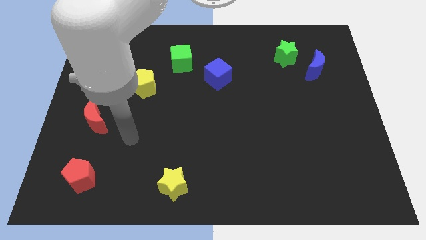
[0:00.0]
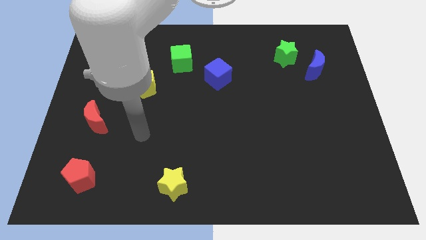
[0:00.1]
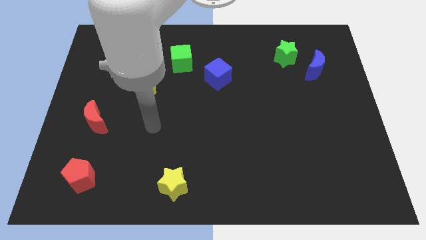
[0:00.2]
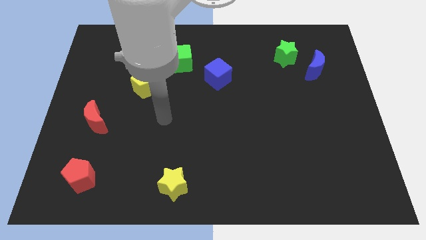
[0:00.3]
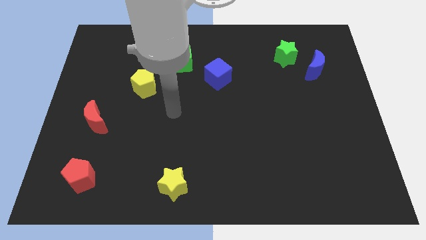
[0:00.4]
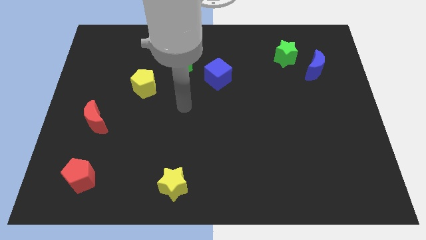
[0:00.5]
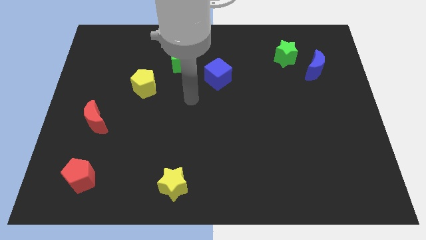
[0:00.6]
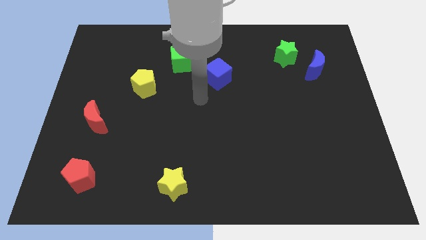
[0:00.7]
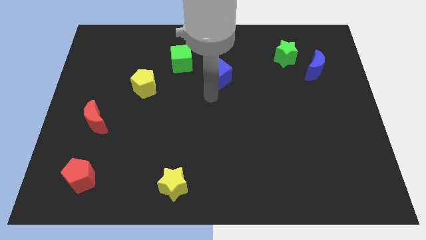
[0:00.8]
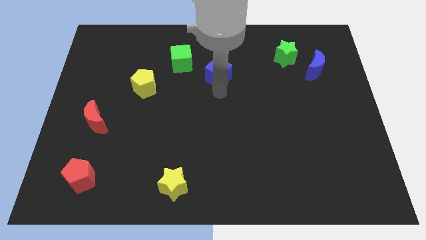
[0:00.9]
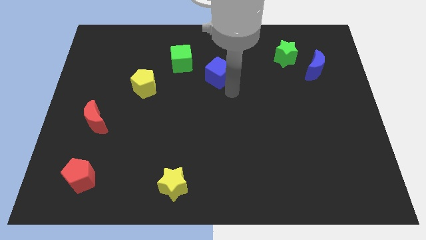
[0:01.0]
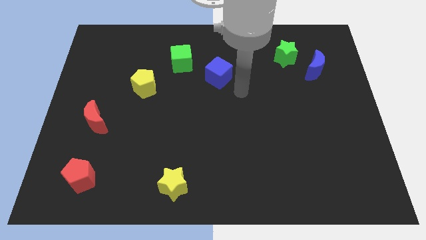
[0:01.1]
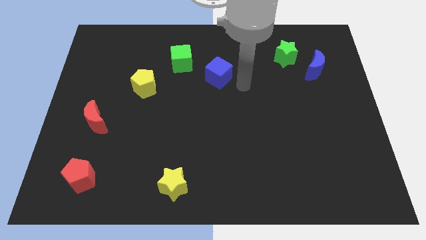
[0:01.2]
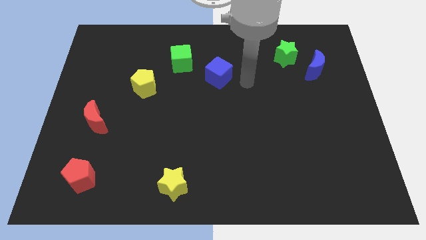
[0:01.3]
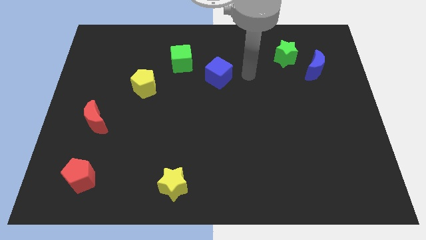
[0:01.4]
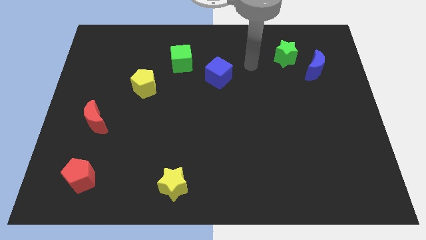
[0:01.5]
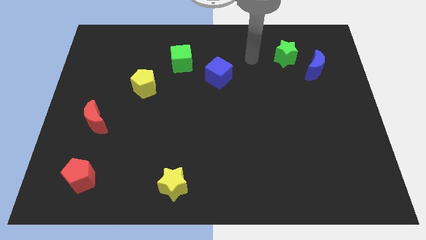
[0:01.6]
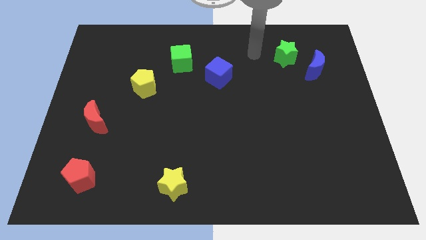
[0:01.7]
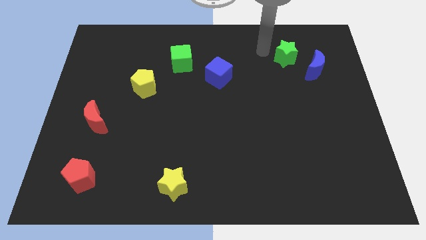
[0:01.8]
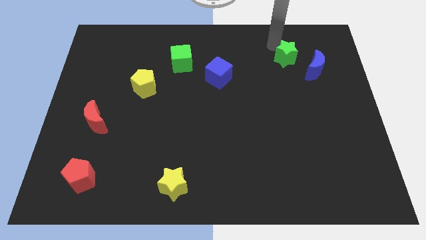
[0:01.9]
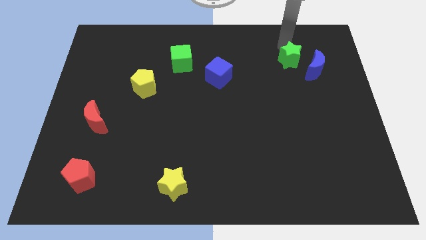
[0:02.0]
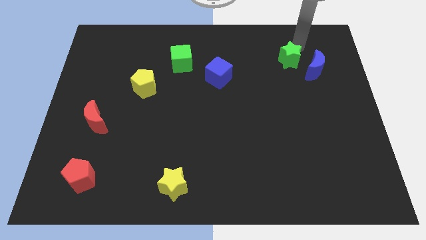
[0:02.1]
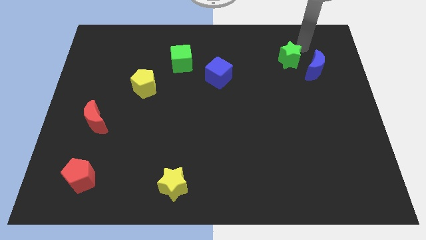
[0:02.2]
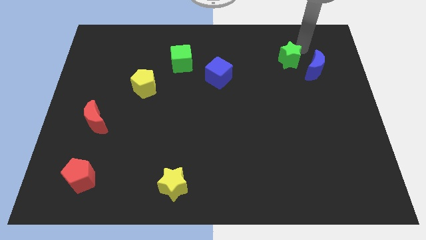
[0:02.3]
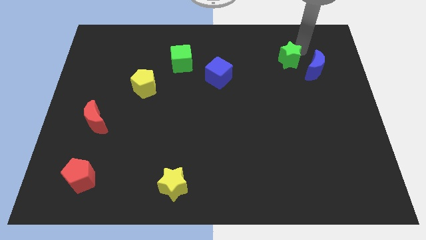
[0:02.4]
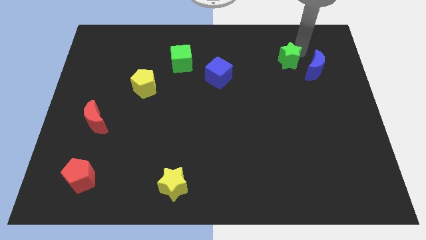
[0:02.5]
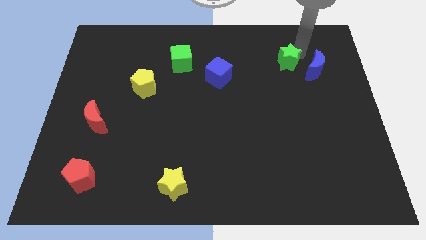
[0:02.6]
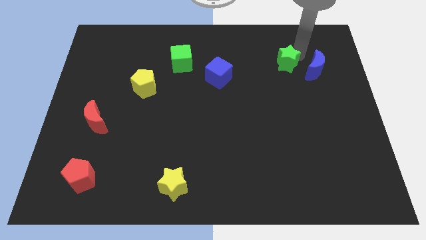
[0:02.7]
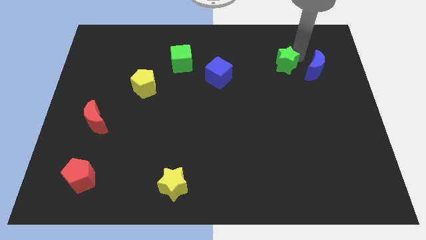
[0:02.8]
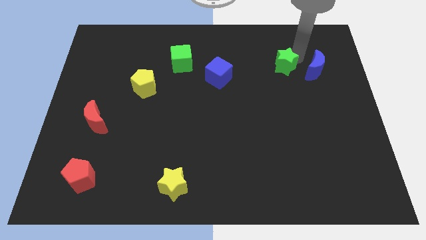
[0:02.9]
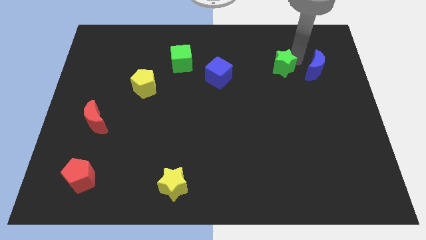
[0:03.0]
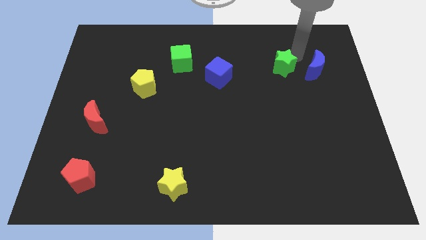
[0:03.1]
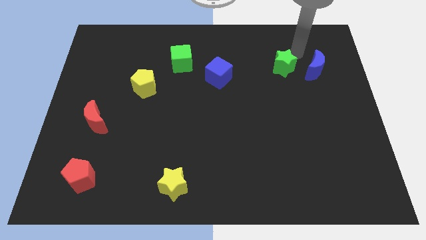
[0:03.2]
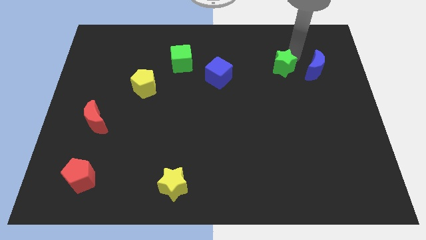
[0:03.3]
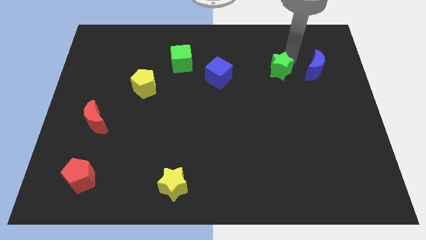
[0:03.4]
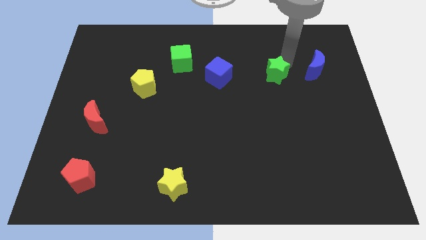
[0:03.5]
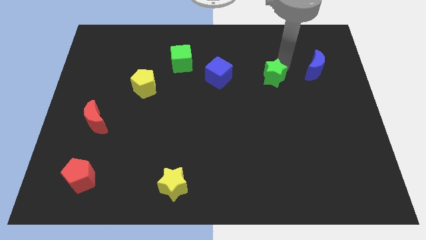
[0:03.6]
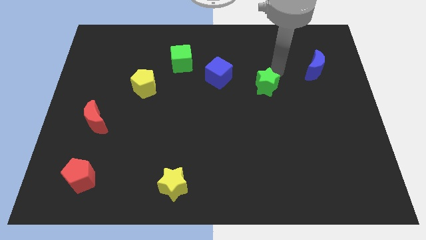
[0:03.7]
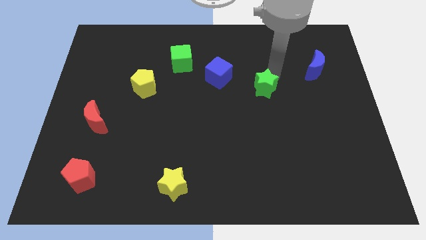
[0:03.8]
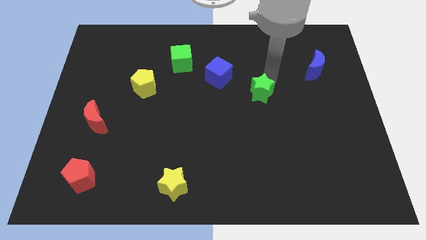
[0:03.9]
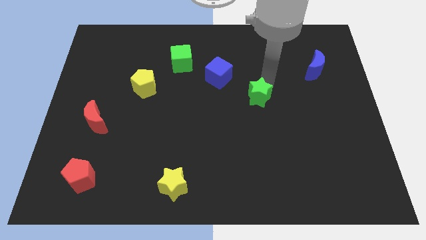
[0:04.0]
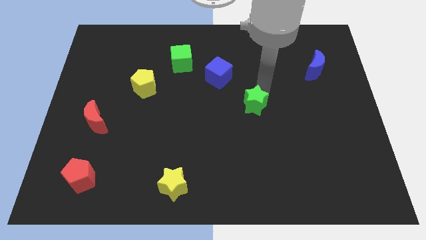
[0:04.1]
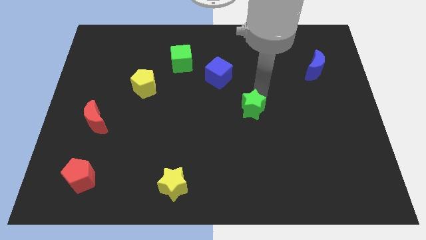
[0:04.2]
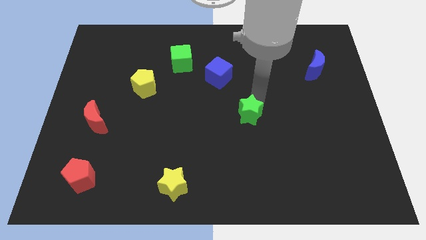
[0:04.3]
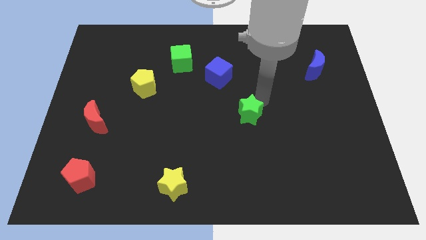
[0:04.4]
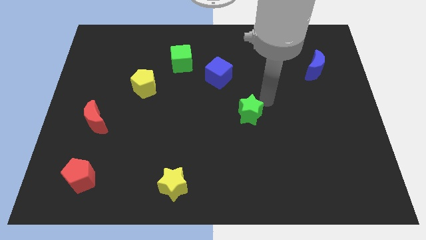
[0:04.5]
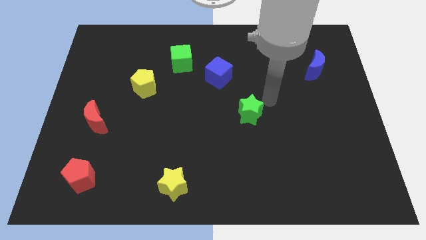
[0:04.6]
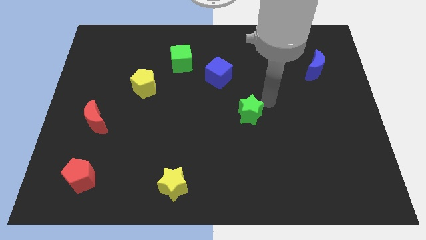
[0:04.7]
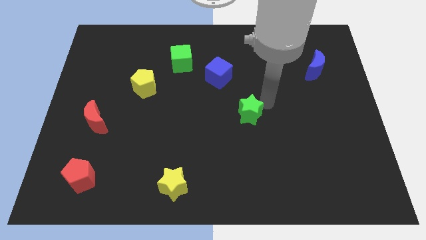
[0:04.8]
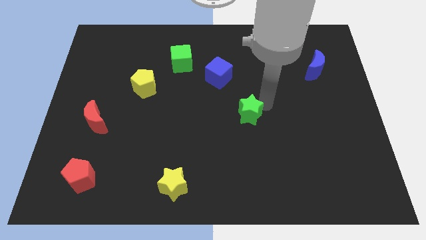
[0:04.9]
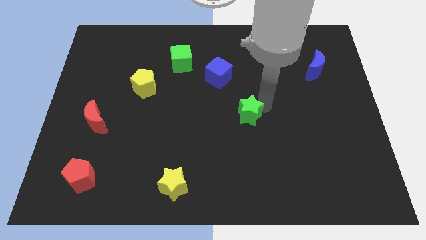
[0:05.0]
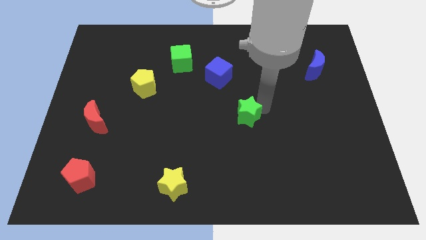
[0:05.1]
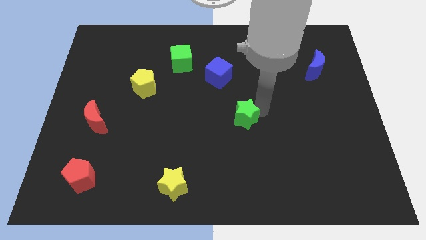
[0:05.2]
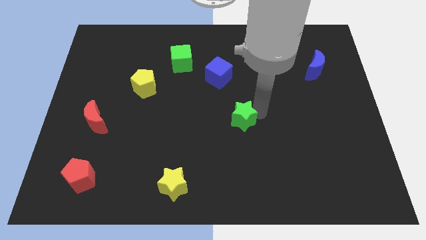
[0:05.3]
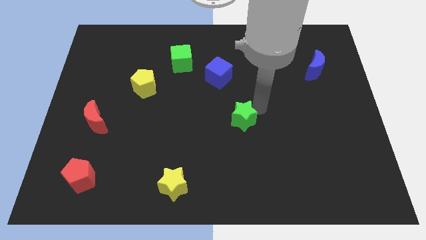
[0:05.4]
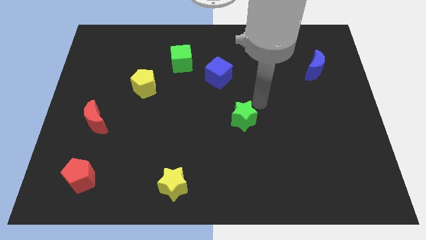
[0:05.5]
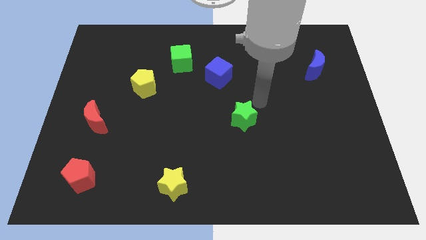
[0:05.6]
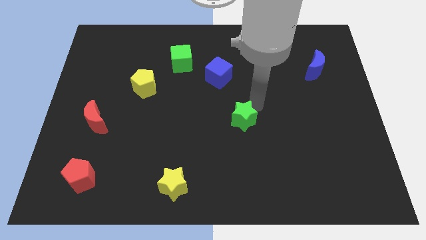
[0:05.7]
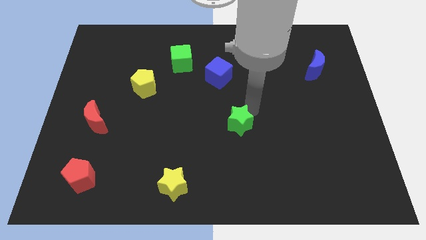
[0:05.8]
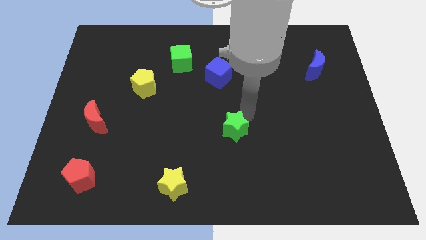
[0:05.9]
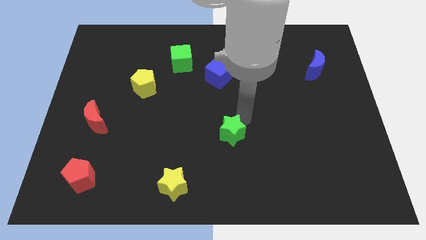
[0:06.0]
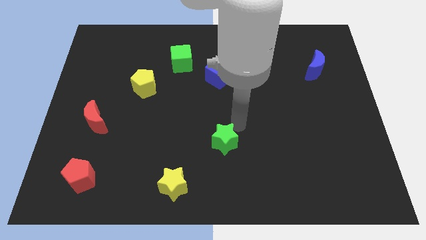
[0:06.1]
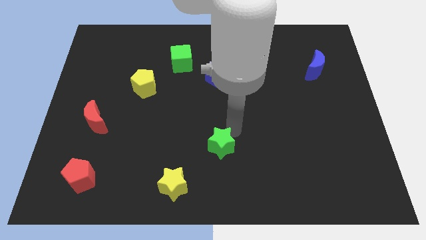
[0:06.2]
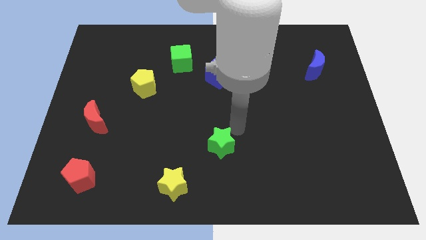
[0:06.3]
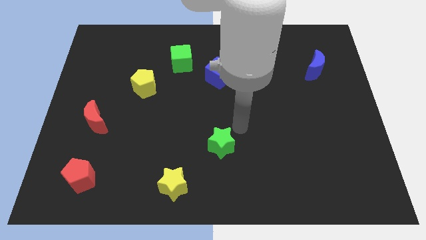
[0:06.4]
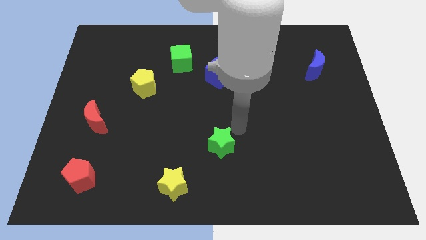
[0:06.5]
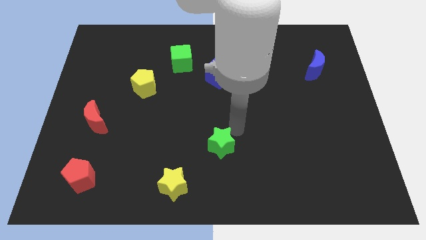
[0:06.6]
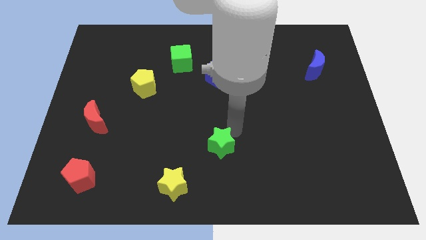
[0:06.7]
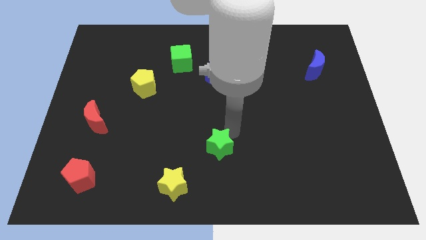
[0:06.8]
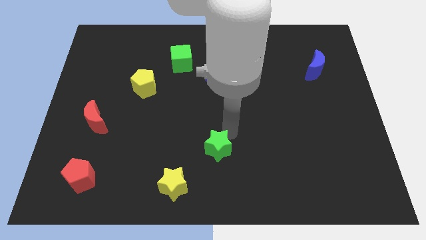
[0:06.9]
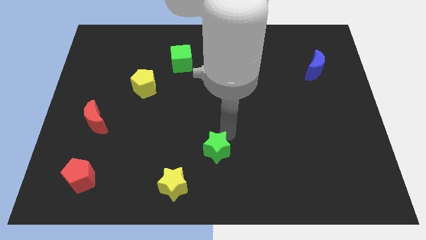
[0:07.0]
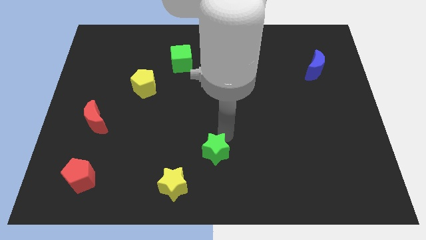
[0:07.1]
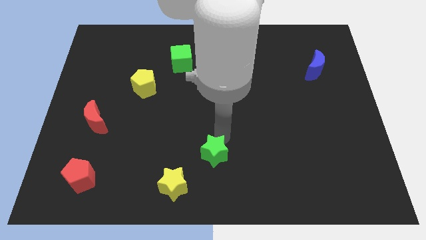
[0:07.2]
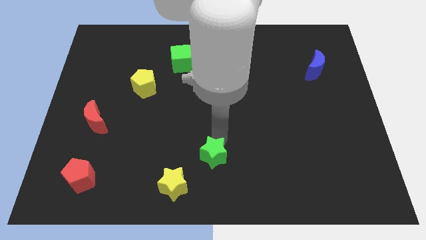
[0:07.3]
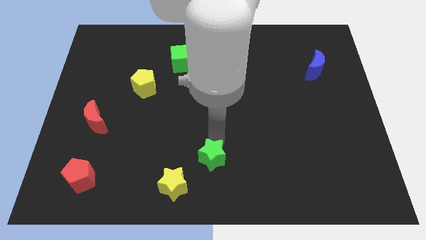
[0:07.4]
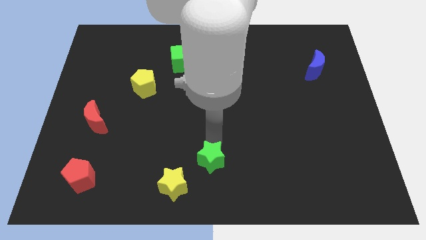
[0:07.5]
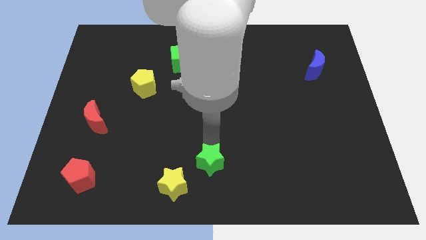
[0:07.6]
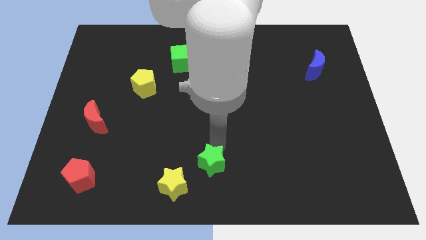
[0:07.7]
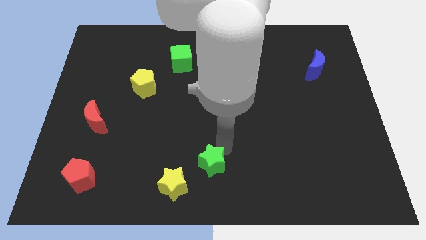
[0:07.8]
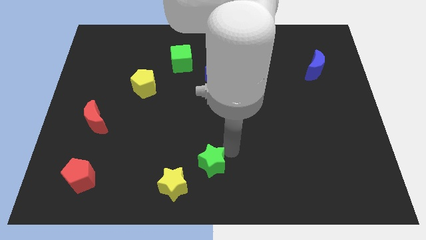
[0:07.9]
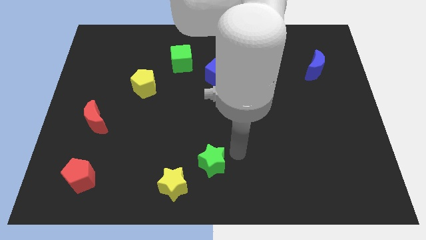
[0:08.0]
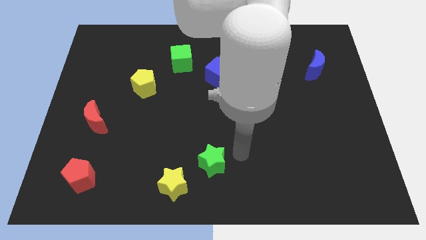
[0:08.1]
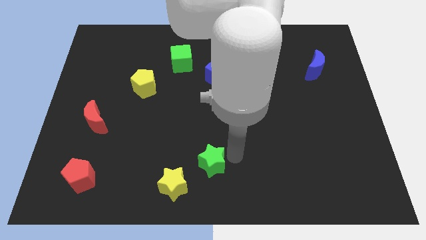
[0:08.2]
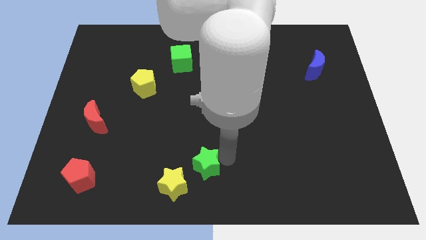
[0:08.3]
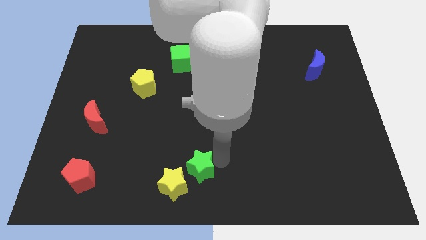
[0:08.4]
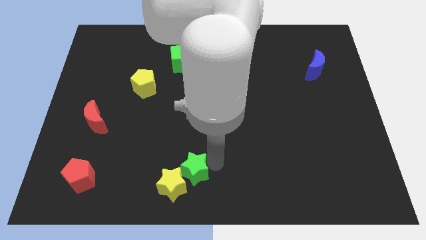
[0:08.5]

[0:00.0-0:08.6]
push the green star to the yellow star
